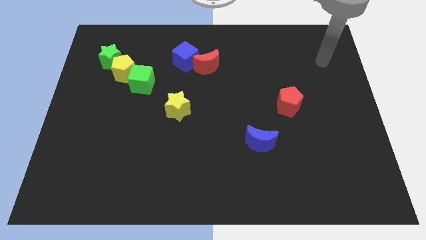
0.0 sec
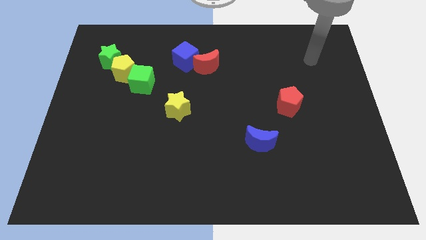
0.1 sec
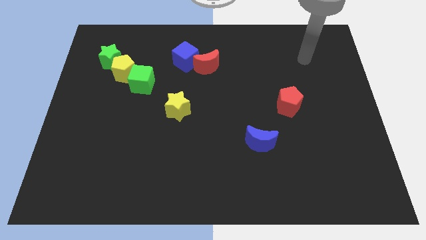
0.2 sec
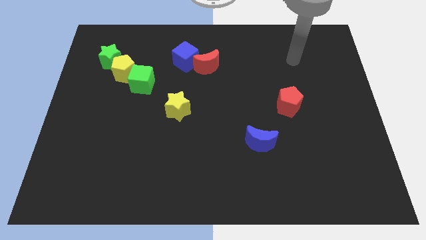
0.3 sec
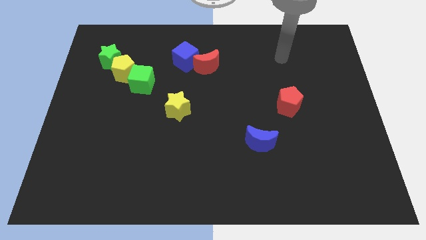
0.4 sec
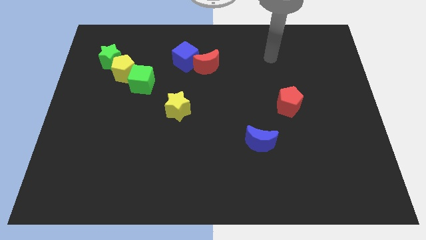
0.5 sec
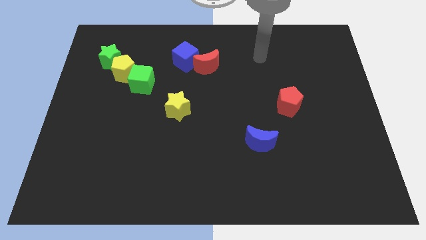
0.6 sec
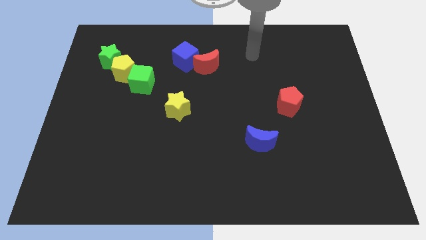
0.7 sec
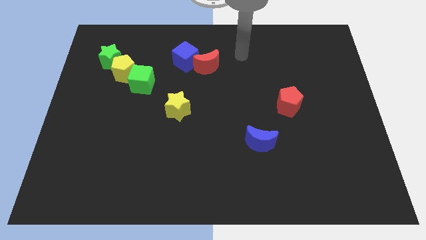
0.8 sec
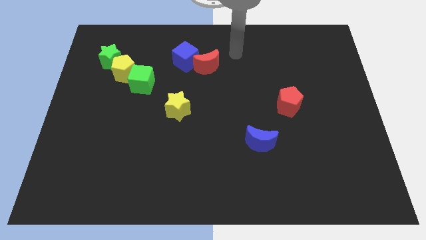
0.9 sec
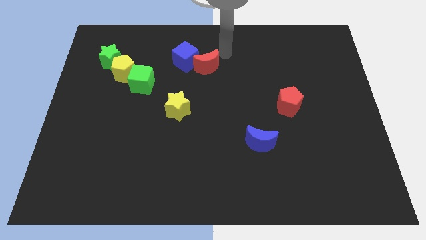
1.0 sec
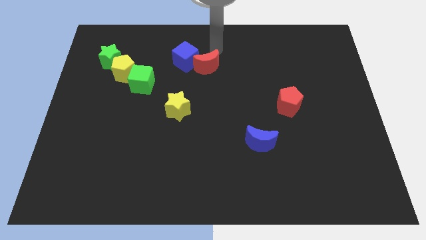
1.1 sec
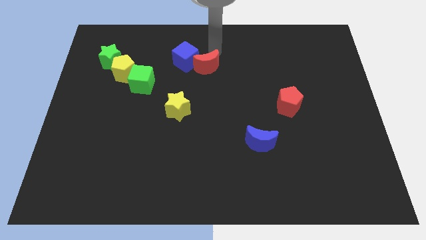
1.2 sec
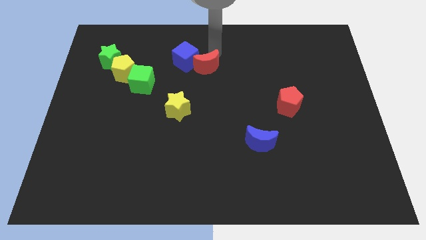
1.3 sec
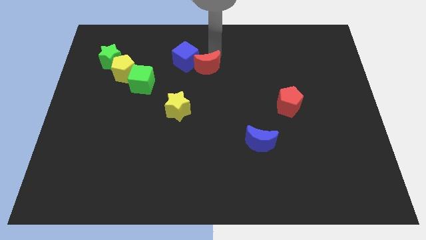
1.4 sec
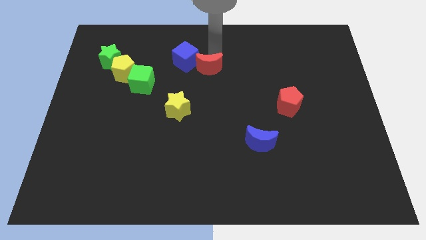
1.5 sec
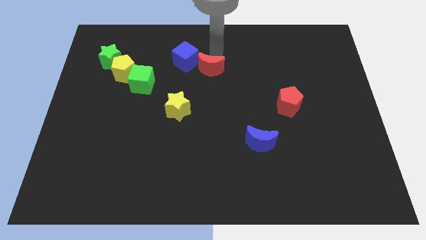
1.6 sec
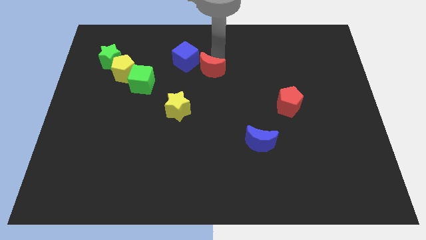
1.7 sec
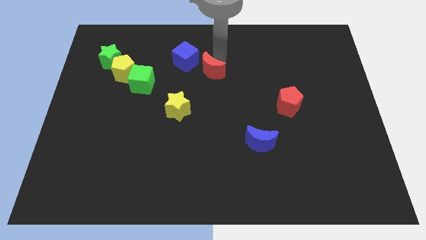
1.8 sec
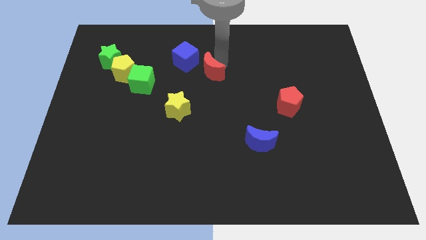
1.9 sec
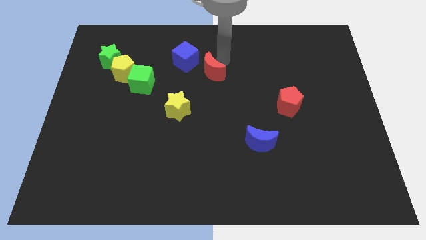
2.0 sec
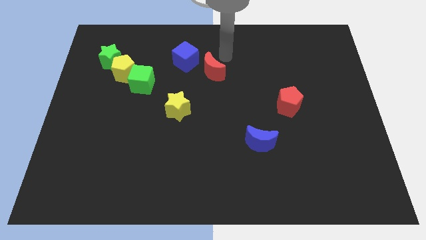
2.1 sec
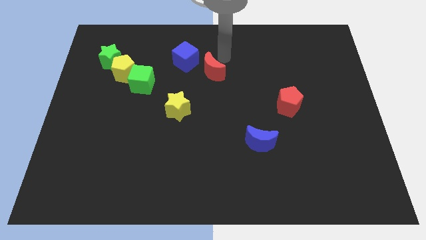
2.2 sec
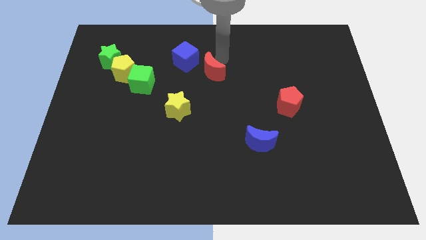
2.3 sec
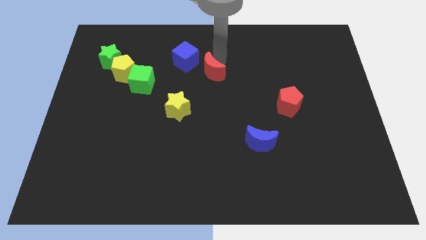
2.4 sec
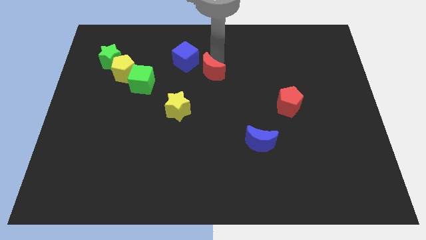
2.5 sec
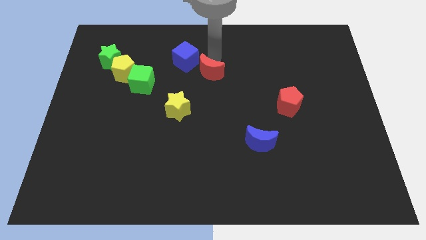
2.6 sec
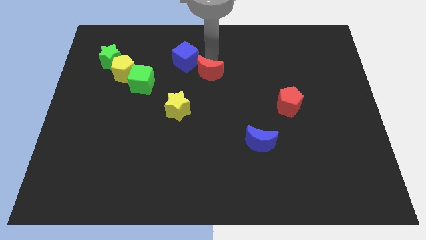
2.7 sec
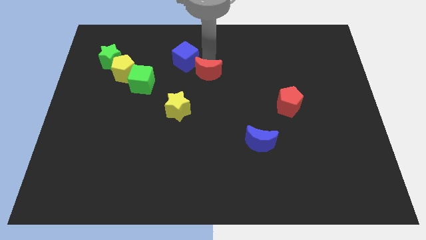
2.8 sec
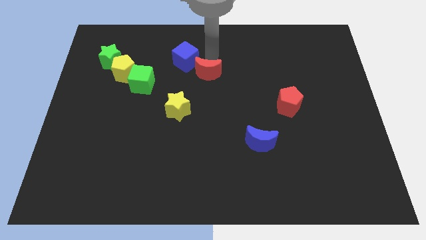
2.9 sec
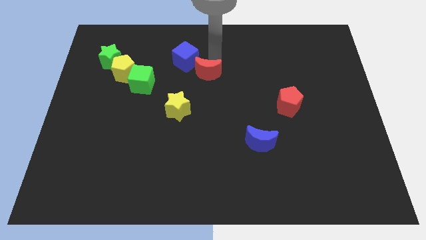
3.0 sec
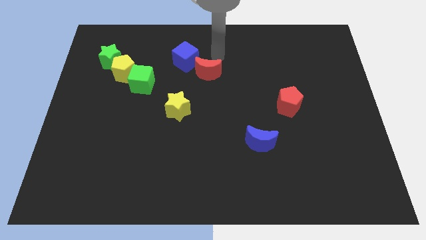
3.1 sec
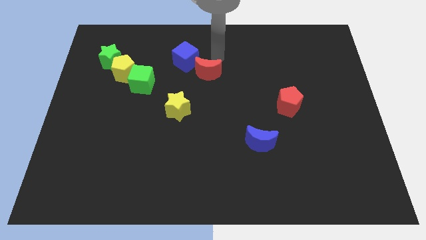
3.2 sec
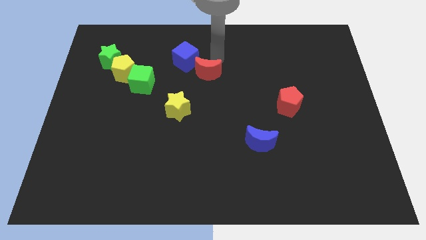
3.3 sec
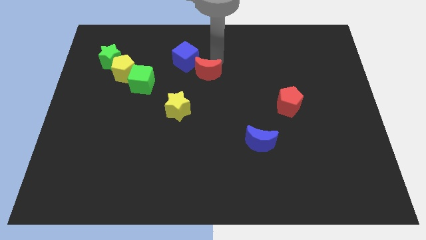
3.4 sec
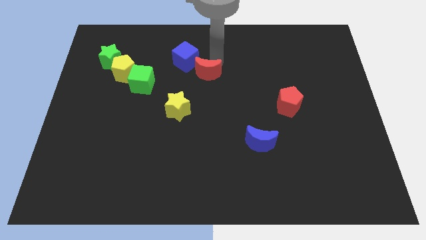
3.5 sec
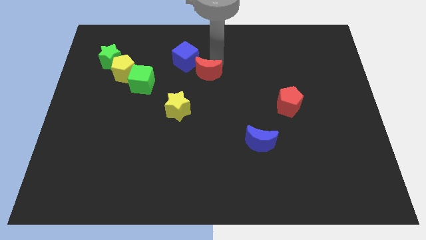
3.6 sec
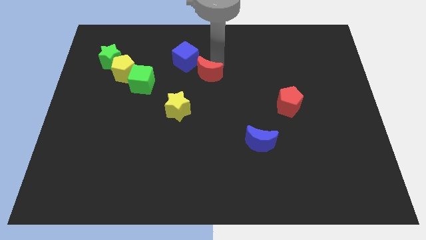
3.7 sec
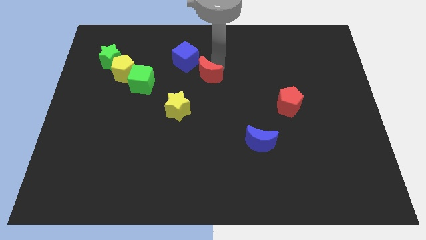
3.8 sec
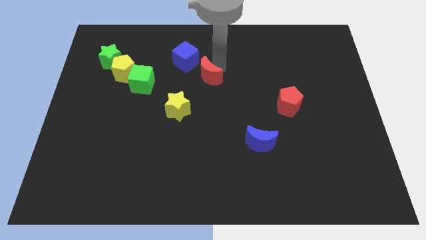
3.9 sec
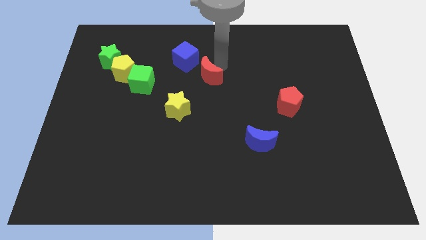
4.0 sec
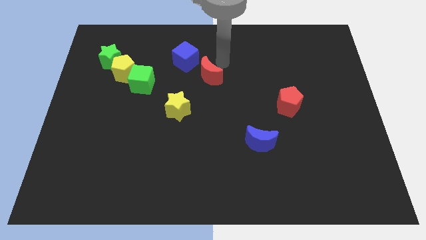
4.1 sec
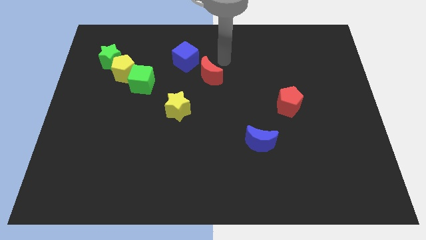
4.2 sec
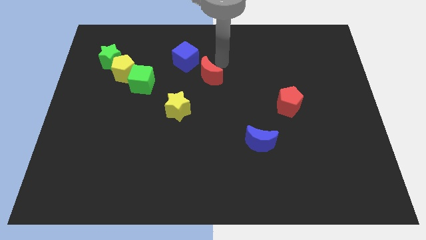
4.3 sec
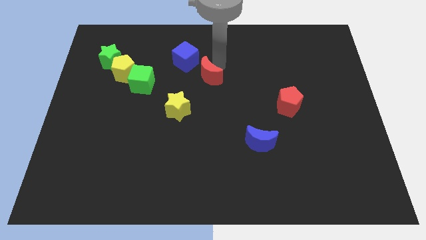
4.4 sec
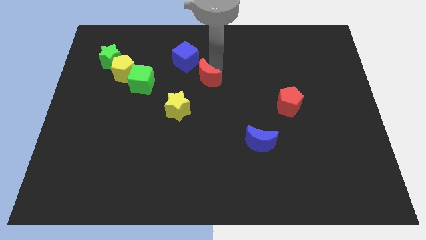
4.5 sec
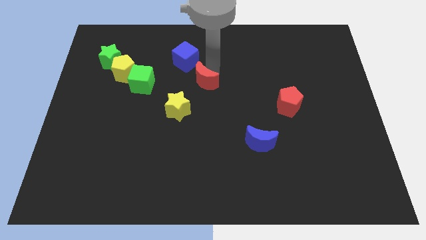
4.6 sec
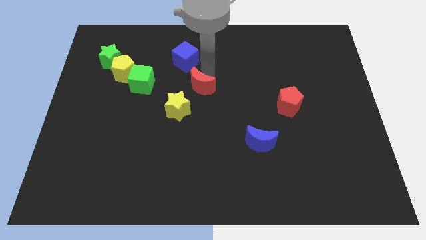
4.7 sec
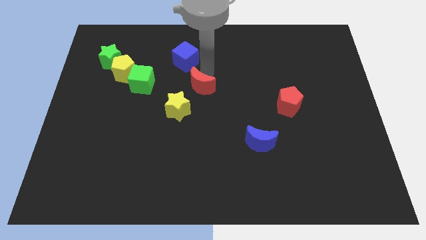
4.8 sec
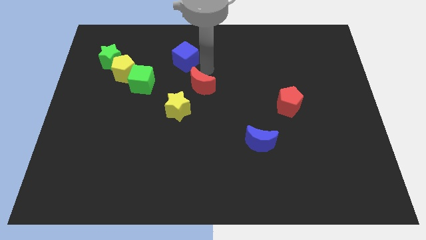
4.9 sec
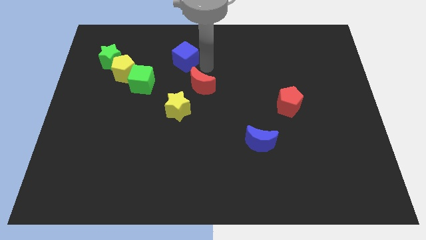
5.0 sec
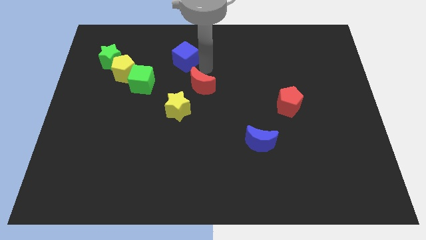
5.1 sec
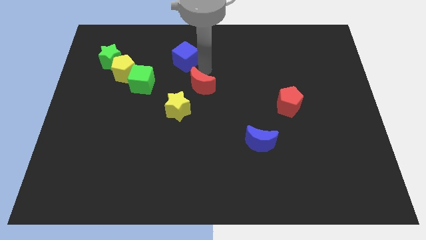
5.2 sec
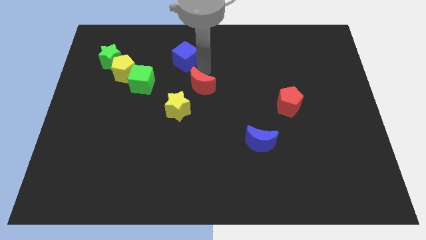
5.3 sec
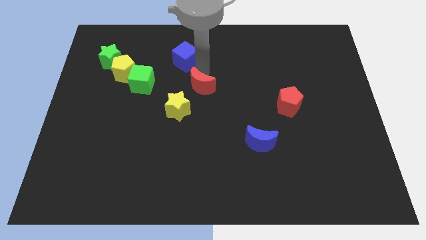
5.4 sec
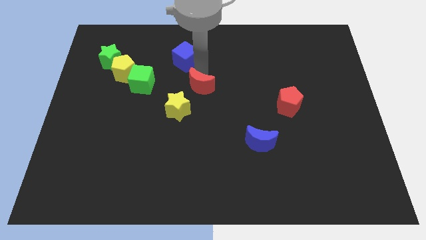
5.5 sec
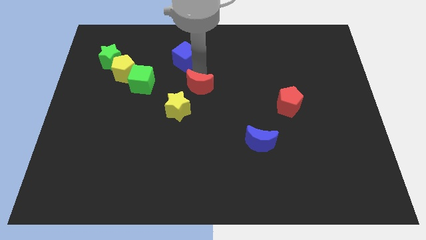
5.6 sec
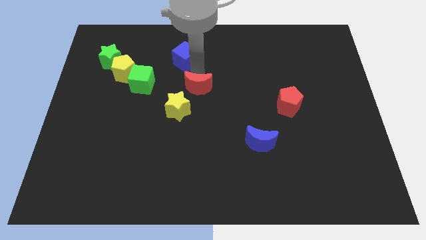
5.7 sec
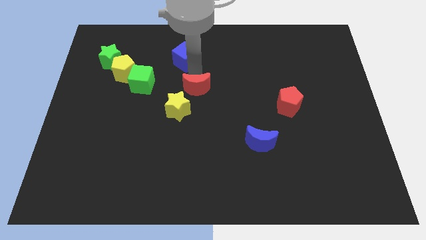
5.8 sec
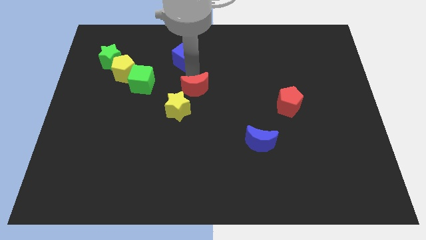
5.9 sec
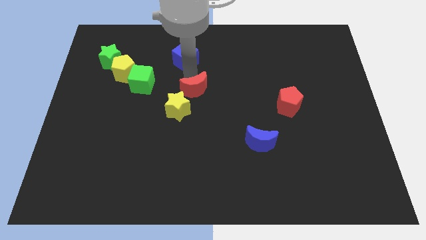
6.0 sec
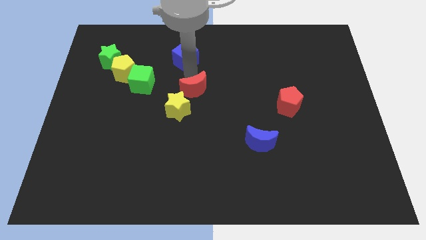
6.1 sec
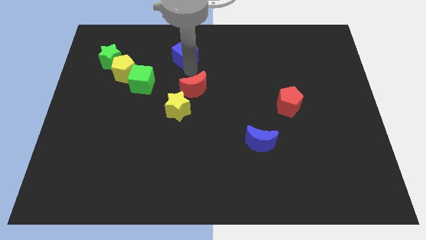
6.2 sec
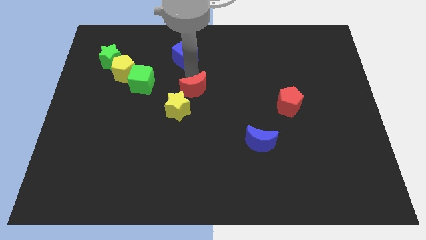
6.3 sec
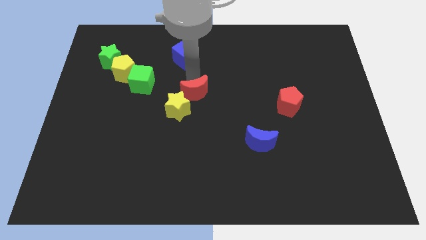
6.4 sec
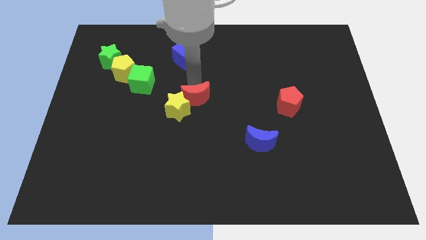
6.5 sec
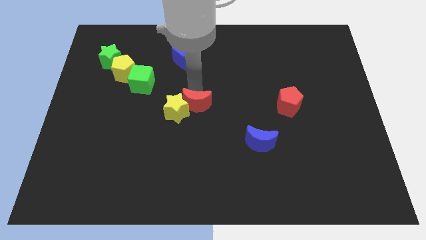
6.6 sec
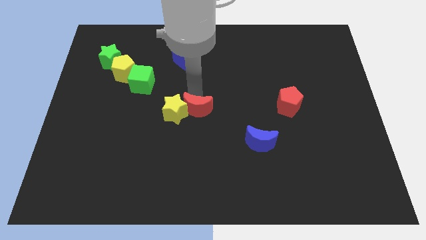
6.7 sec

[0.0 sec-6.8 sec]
push the red moon to the bottom right of the yellow star

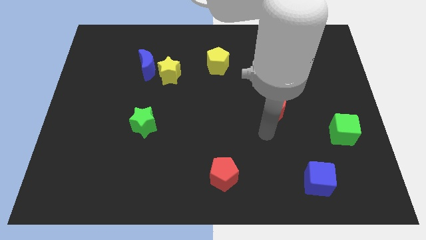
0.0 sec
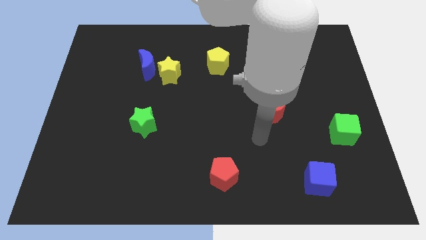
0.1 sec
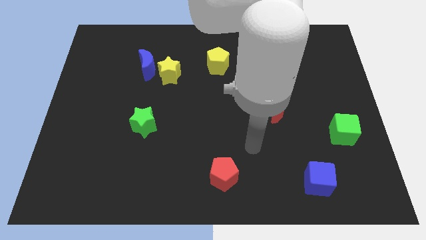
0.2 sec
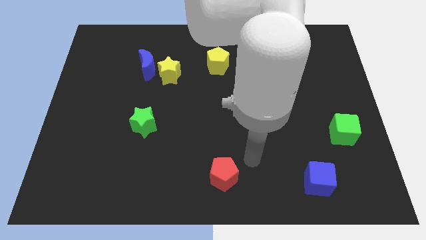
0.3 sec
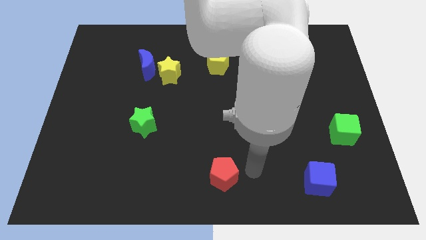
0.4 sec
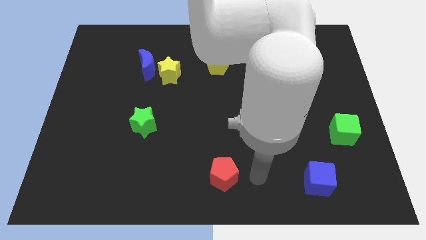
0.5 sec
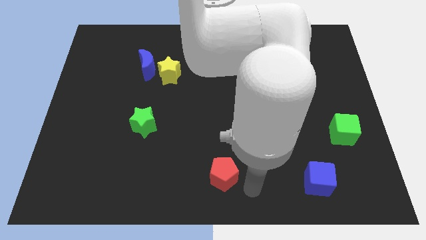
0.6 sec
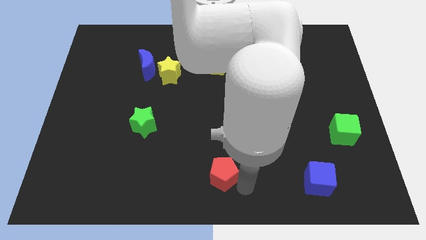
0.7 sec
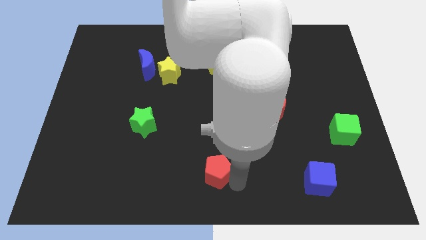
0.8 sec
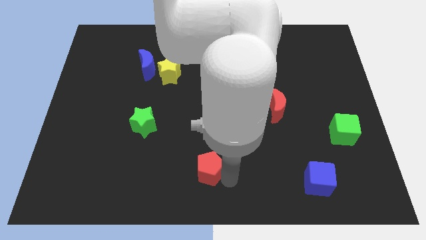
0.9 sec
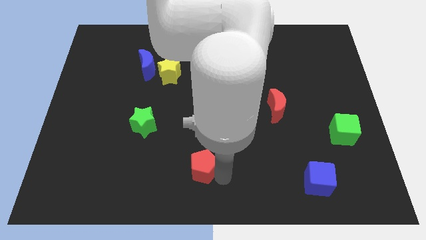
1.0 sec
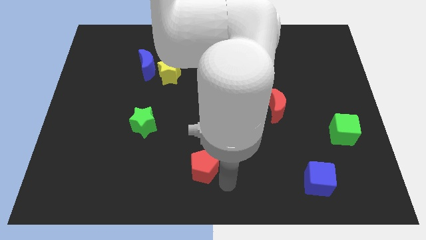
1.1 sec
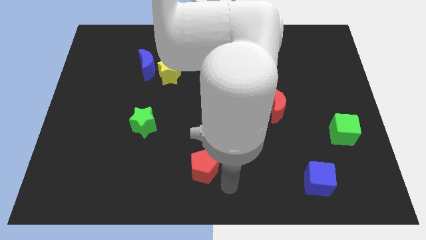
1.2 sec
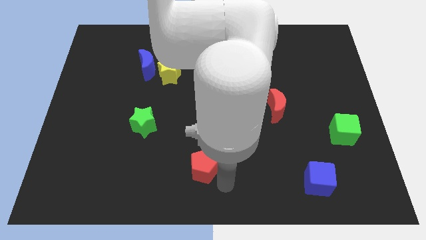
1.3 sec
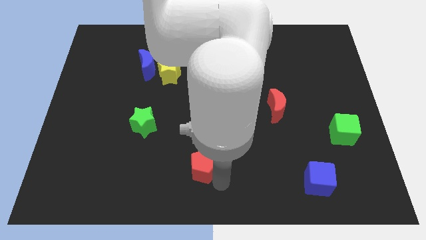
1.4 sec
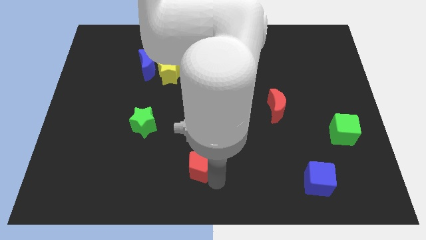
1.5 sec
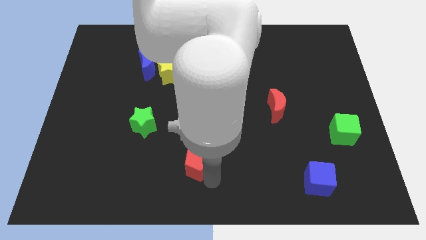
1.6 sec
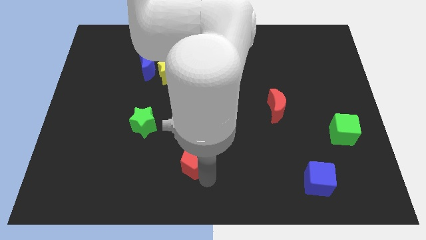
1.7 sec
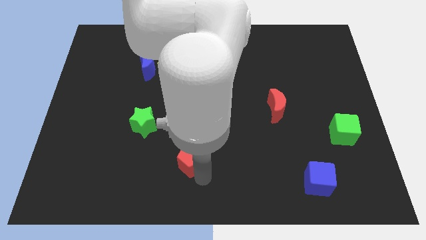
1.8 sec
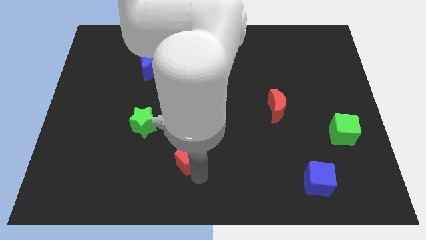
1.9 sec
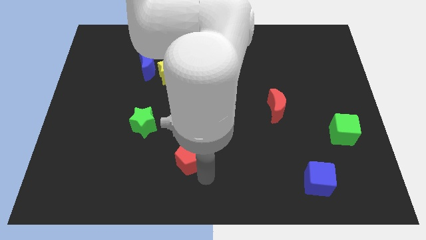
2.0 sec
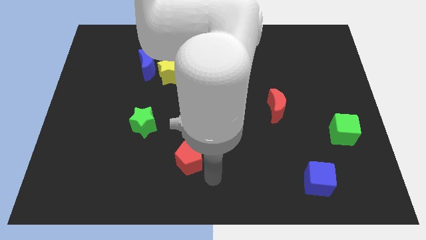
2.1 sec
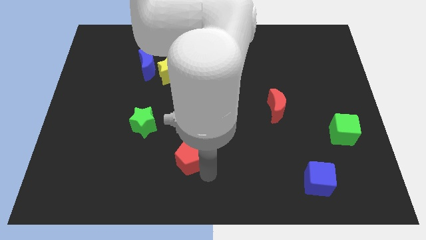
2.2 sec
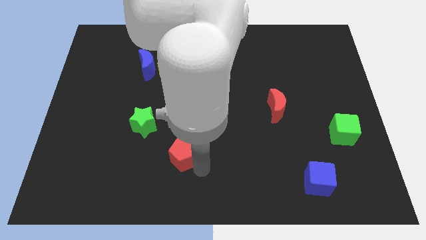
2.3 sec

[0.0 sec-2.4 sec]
slide the red pentagon to the bottom right side of the green star
